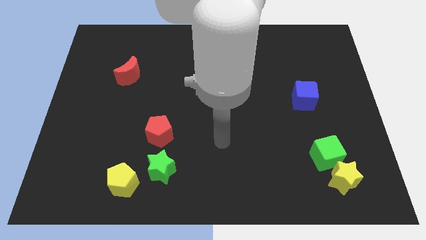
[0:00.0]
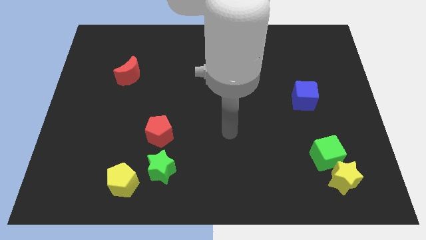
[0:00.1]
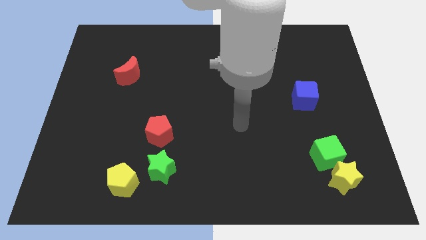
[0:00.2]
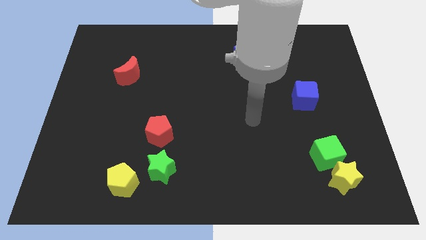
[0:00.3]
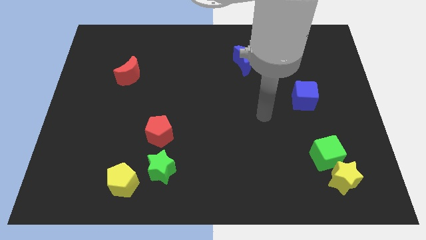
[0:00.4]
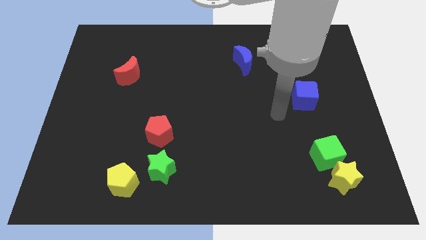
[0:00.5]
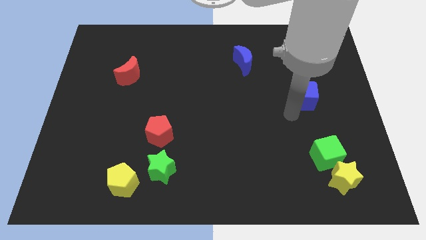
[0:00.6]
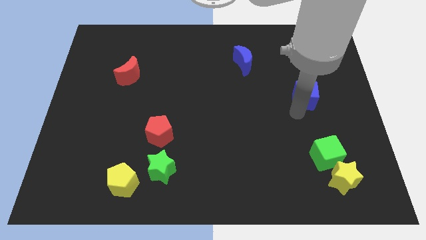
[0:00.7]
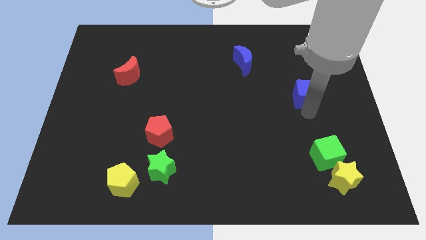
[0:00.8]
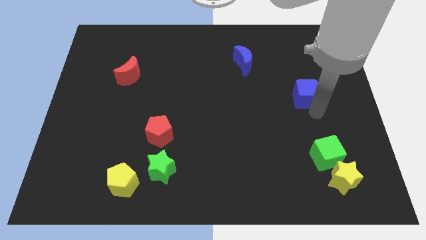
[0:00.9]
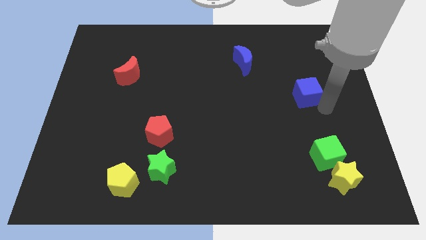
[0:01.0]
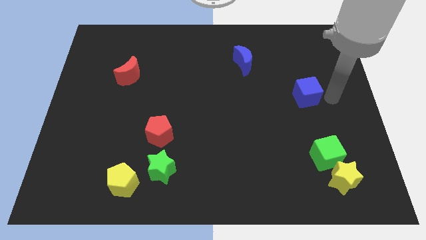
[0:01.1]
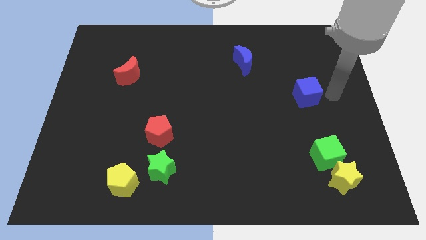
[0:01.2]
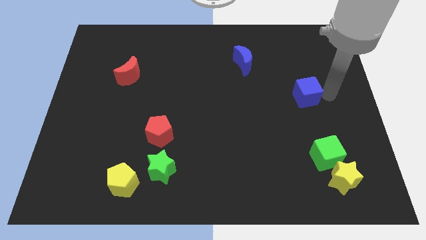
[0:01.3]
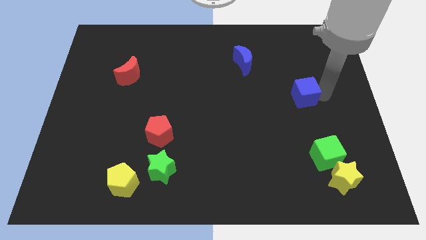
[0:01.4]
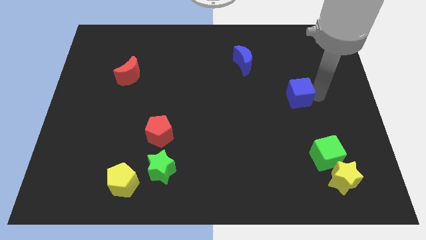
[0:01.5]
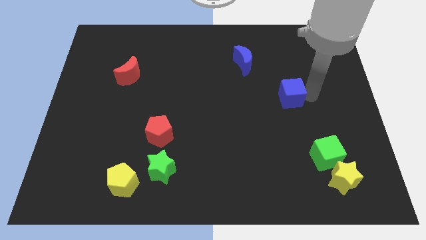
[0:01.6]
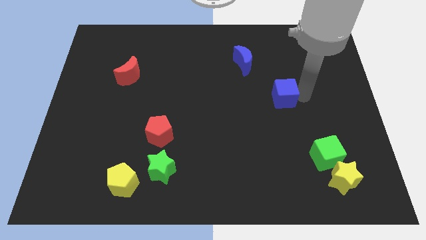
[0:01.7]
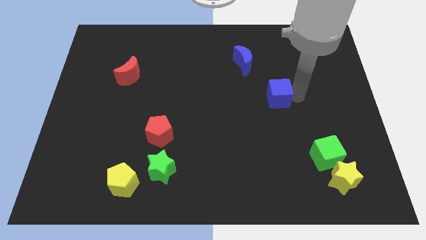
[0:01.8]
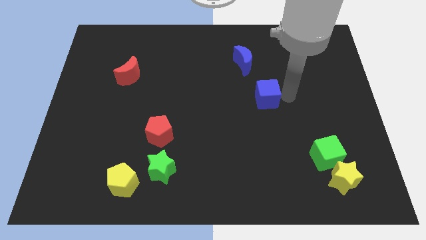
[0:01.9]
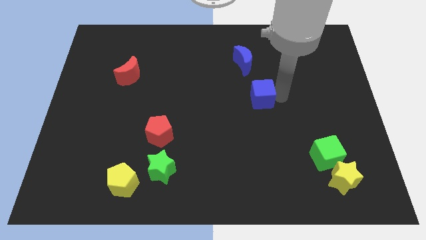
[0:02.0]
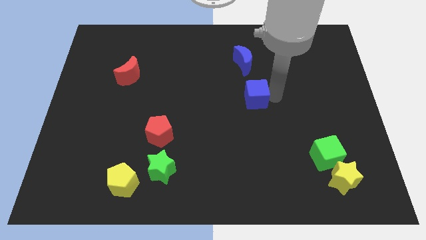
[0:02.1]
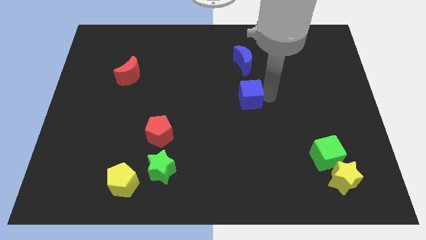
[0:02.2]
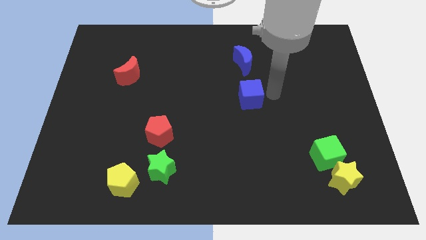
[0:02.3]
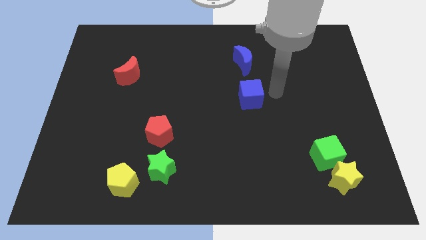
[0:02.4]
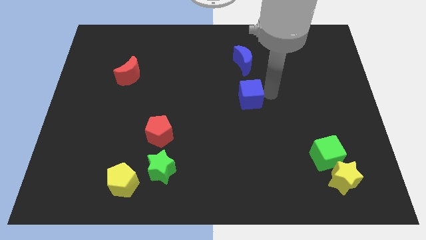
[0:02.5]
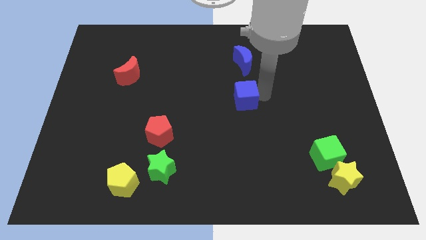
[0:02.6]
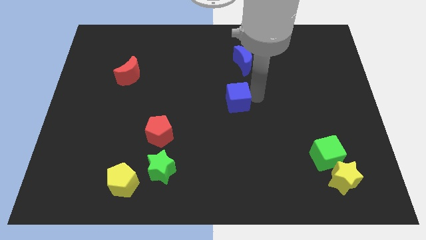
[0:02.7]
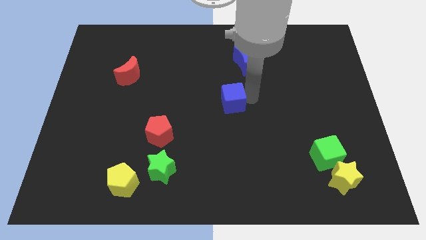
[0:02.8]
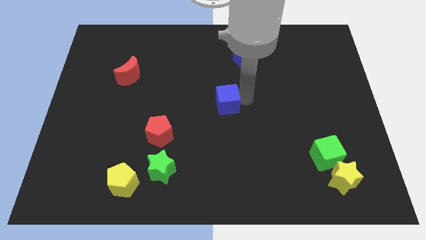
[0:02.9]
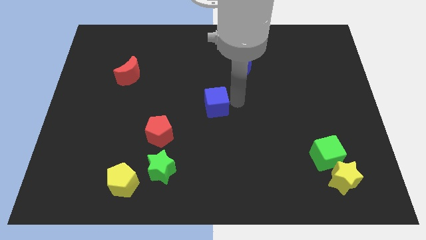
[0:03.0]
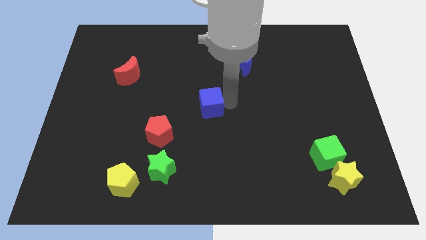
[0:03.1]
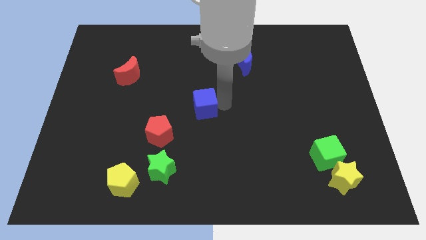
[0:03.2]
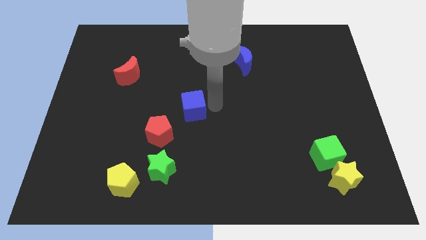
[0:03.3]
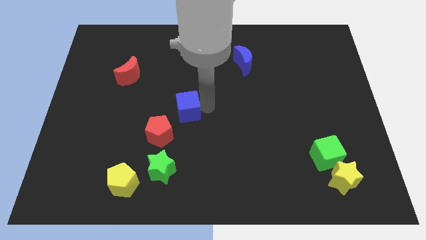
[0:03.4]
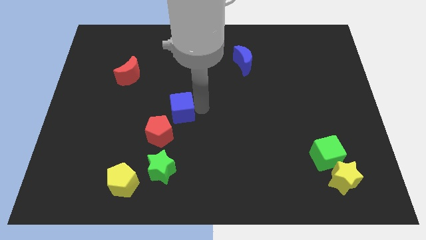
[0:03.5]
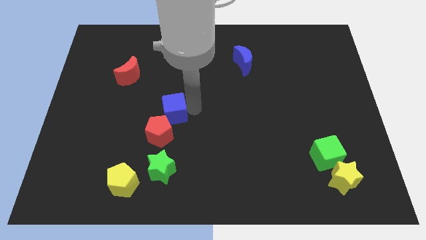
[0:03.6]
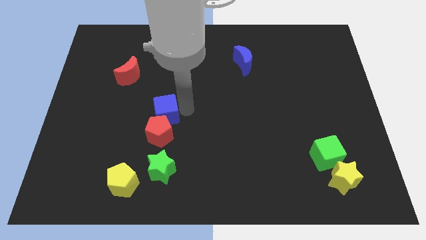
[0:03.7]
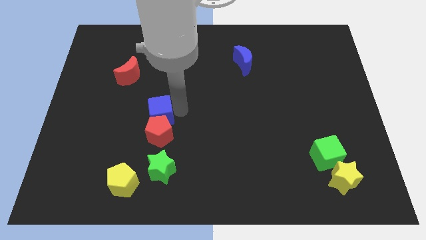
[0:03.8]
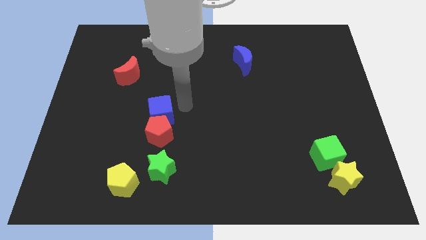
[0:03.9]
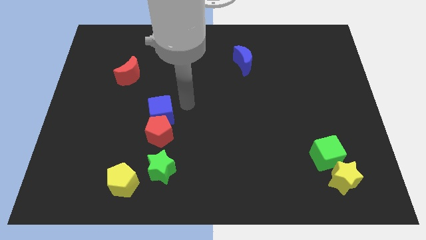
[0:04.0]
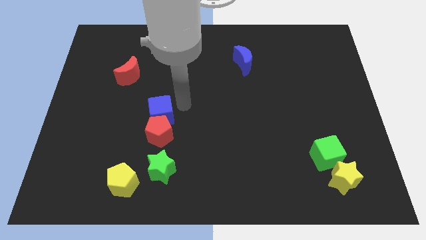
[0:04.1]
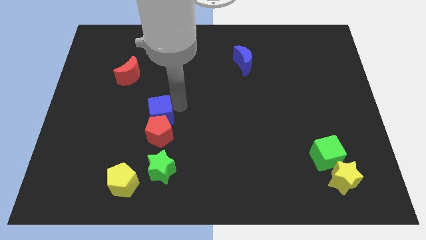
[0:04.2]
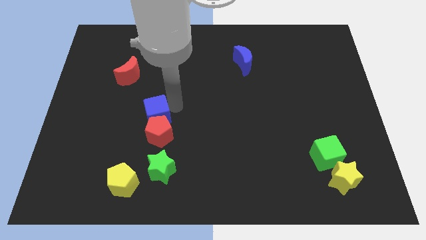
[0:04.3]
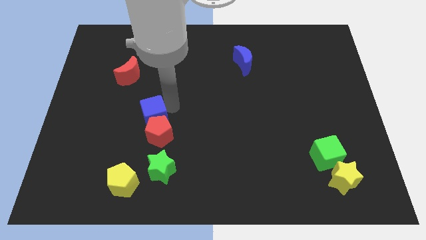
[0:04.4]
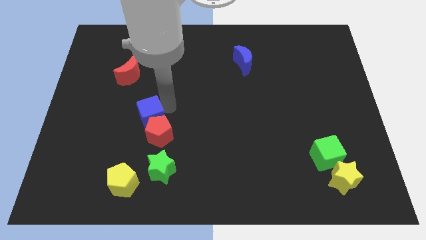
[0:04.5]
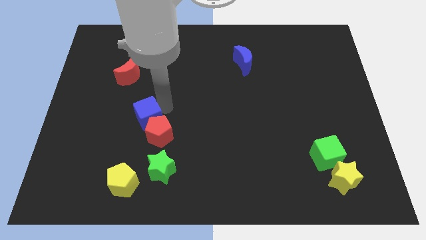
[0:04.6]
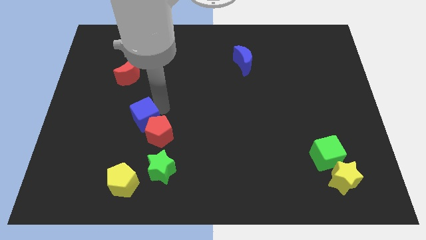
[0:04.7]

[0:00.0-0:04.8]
slide the blue cube just left of the red pentagon

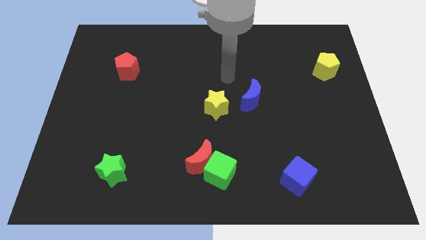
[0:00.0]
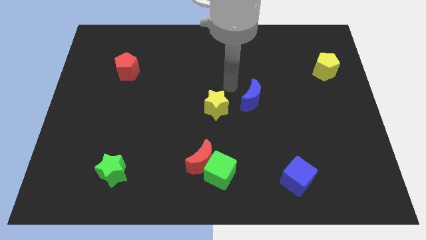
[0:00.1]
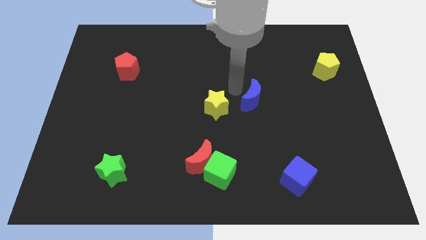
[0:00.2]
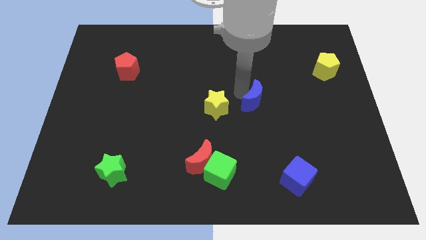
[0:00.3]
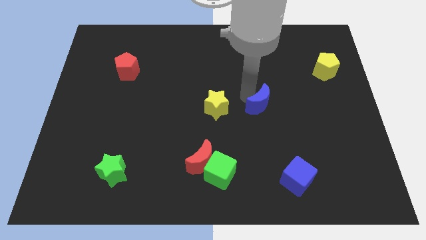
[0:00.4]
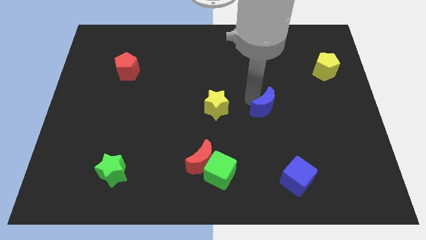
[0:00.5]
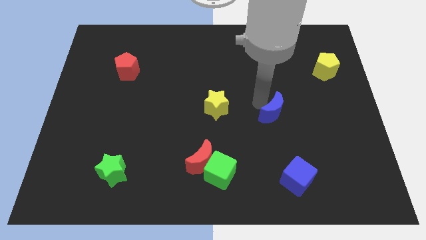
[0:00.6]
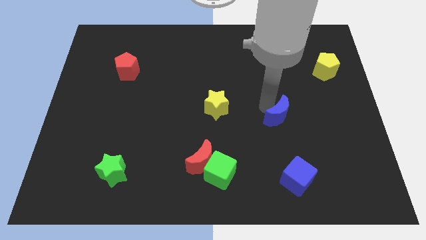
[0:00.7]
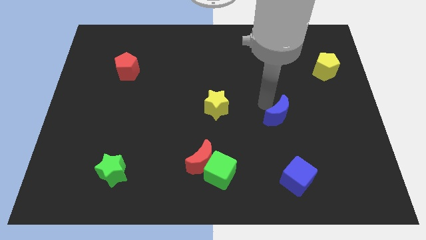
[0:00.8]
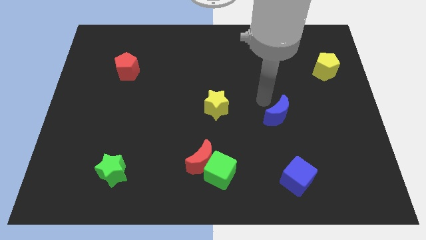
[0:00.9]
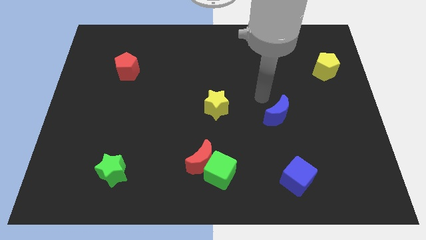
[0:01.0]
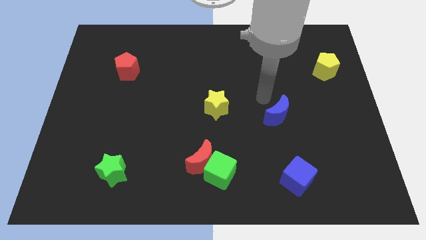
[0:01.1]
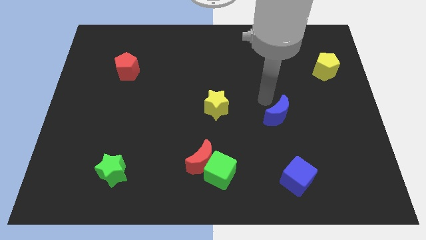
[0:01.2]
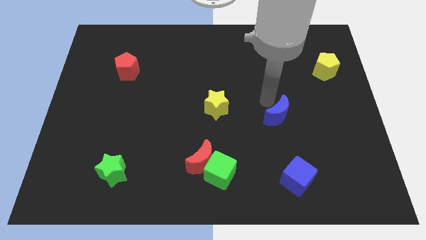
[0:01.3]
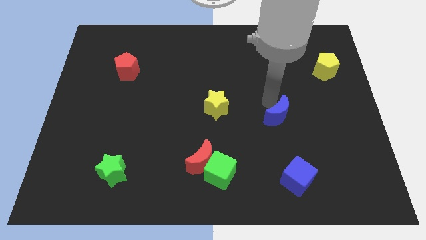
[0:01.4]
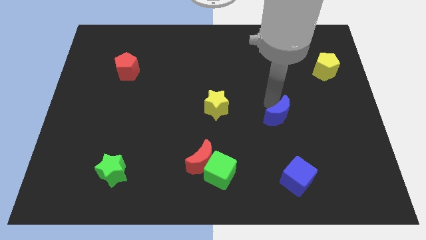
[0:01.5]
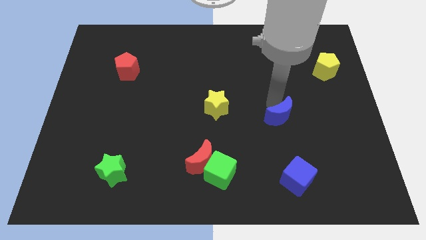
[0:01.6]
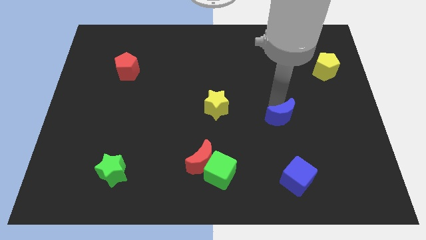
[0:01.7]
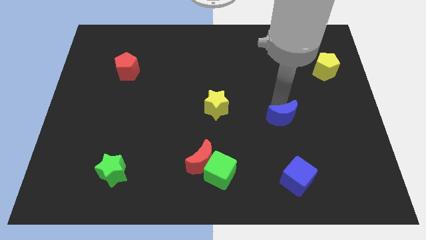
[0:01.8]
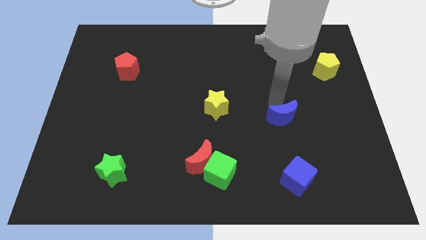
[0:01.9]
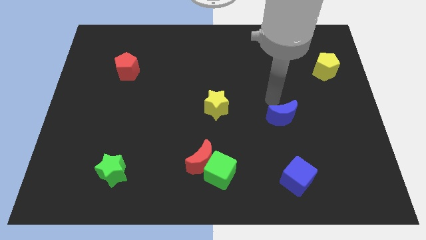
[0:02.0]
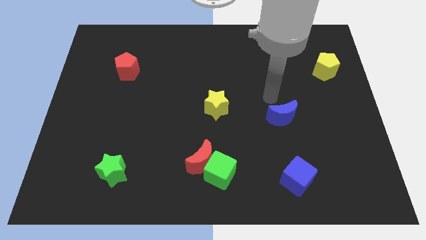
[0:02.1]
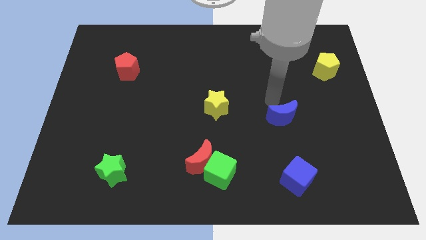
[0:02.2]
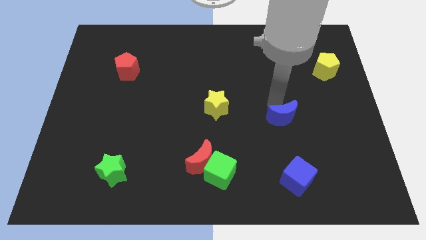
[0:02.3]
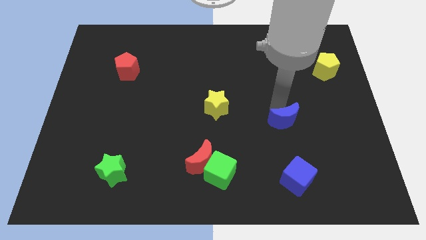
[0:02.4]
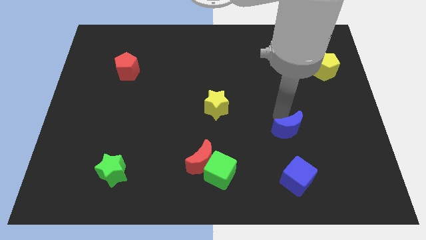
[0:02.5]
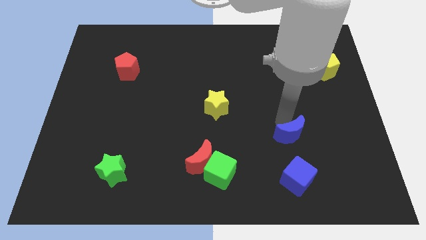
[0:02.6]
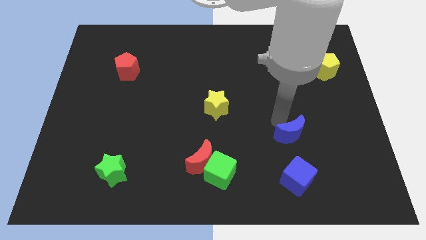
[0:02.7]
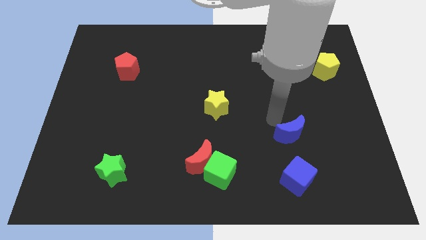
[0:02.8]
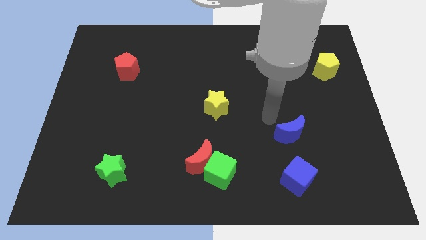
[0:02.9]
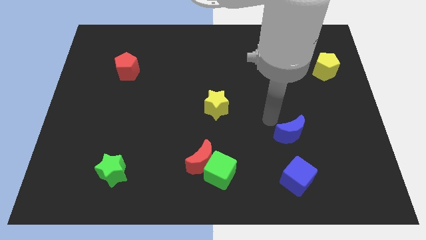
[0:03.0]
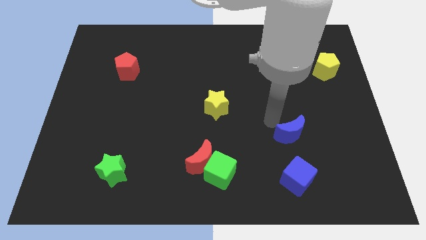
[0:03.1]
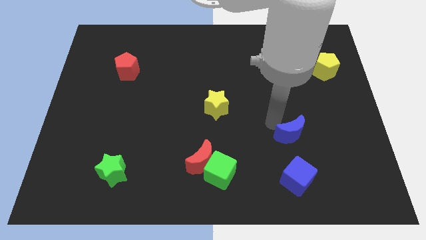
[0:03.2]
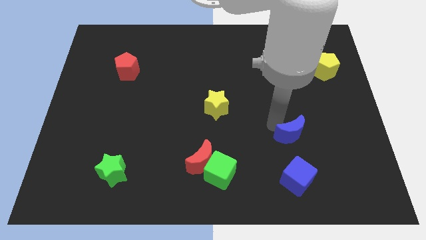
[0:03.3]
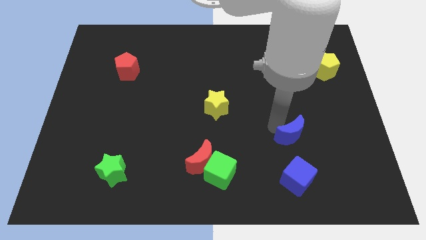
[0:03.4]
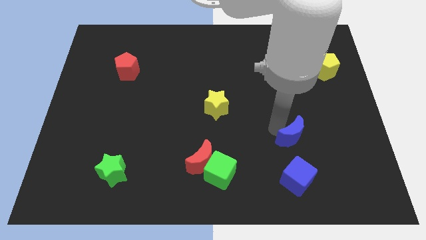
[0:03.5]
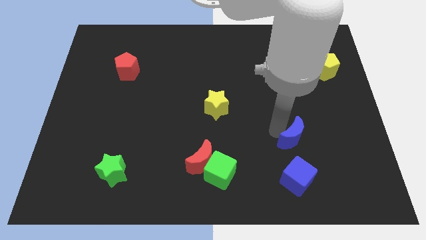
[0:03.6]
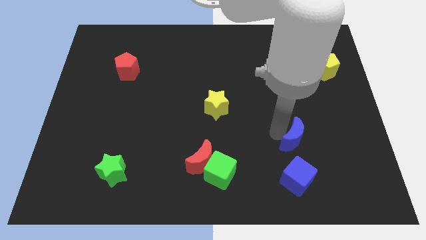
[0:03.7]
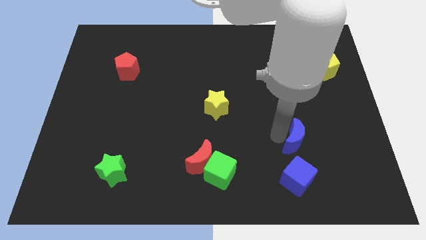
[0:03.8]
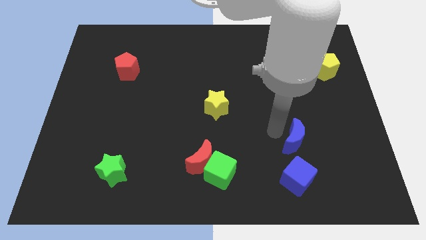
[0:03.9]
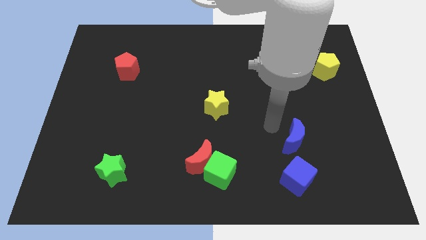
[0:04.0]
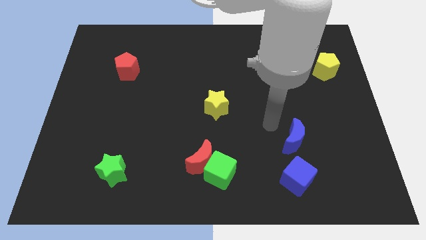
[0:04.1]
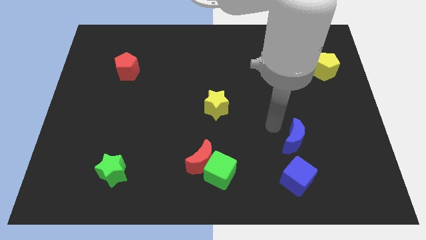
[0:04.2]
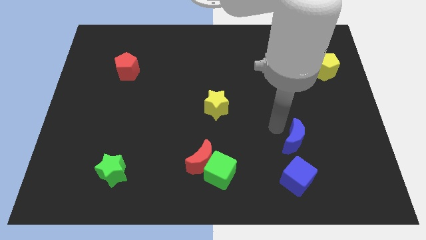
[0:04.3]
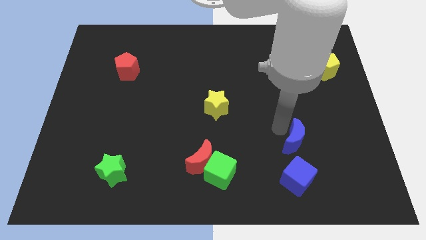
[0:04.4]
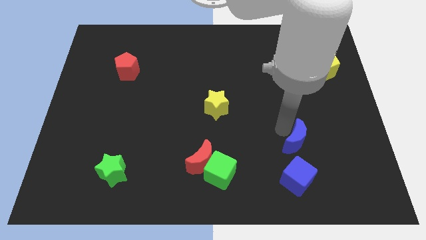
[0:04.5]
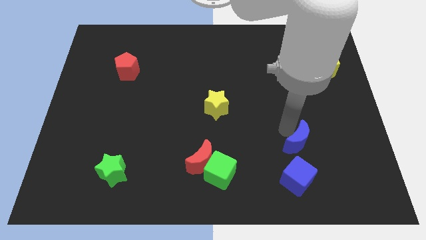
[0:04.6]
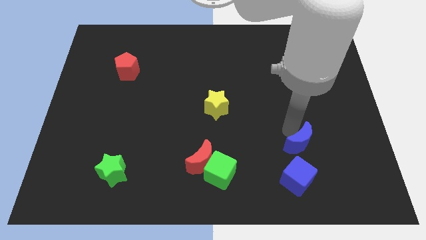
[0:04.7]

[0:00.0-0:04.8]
push the blue moon to the top right of the blue cube
